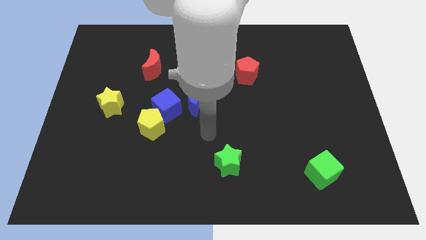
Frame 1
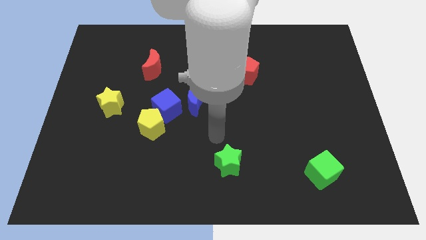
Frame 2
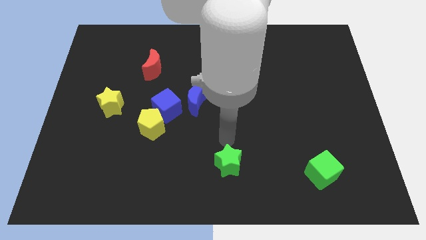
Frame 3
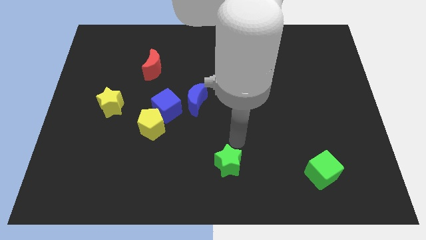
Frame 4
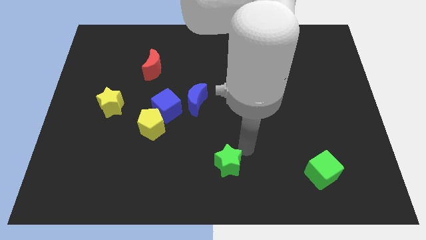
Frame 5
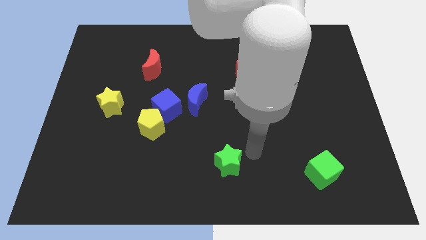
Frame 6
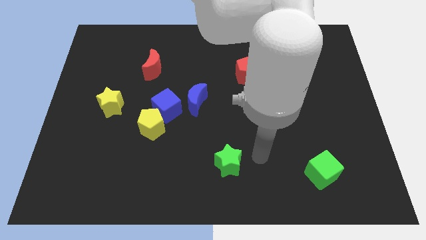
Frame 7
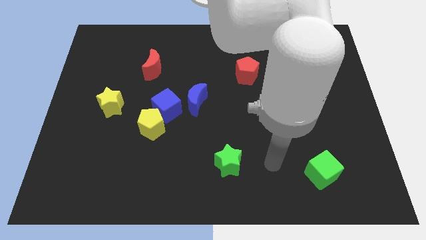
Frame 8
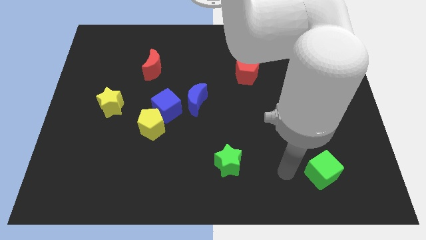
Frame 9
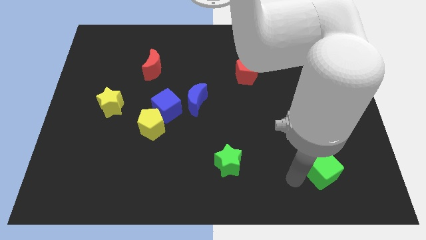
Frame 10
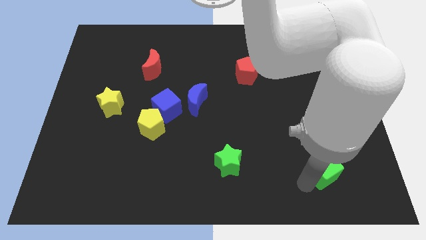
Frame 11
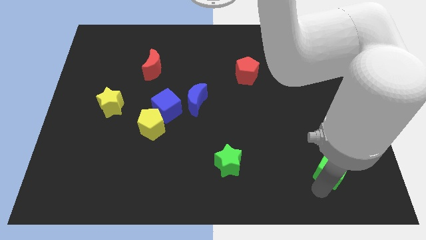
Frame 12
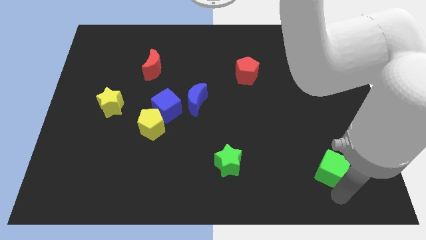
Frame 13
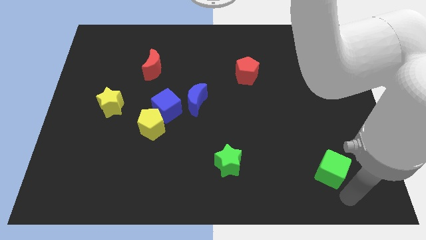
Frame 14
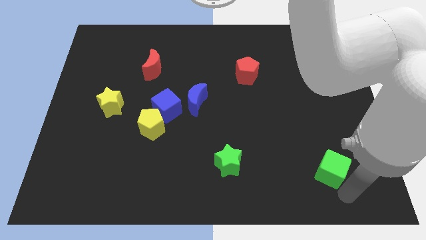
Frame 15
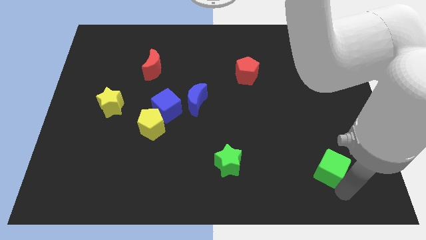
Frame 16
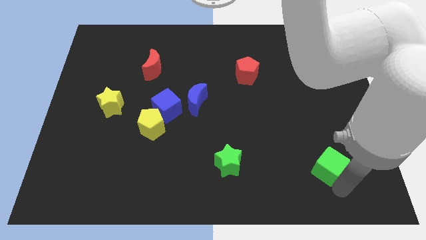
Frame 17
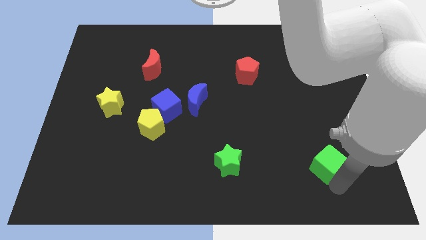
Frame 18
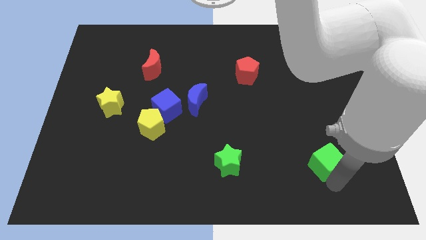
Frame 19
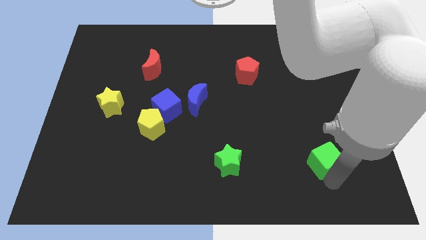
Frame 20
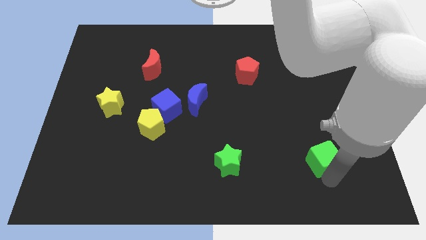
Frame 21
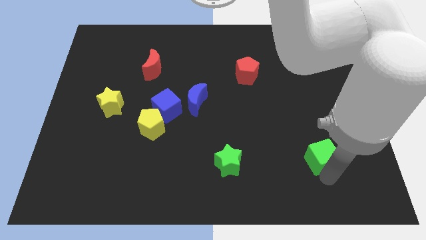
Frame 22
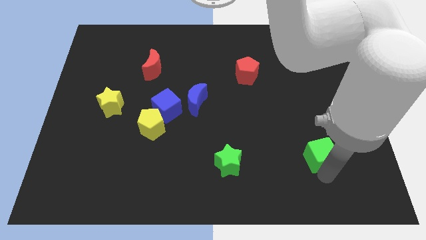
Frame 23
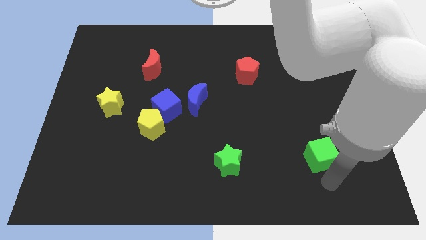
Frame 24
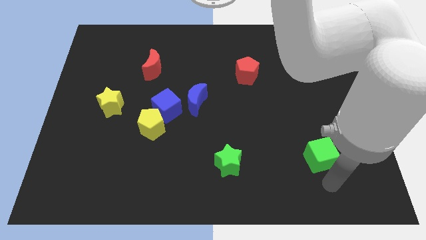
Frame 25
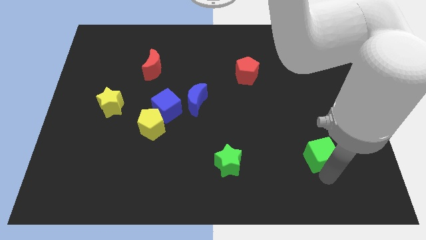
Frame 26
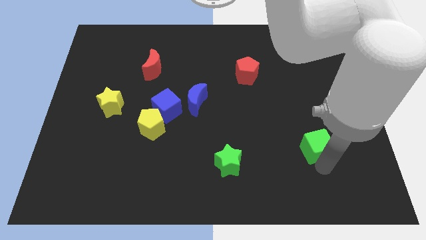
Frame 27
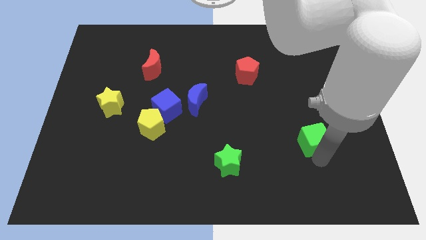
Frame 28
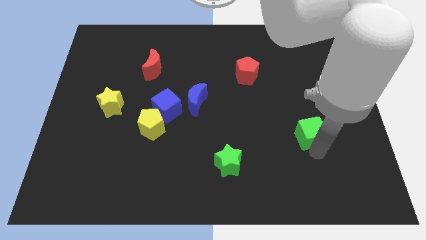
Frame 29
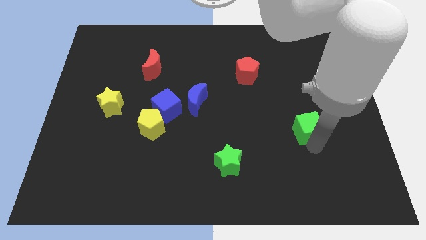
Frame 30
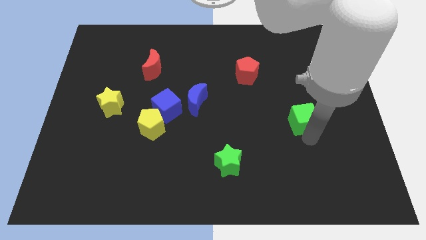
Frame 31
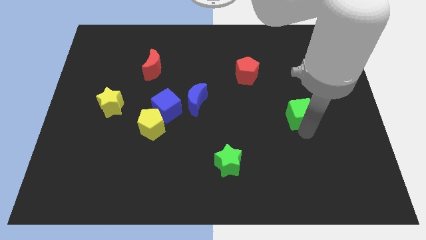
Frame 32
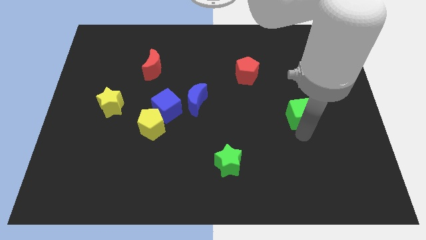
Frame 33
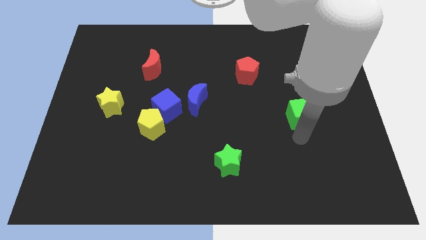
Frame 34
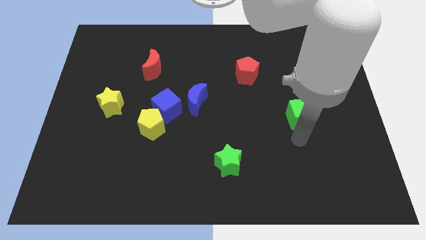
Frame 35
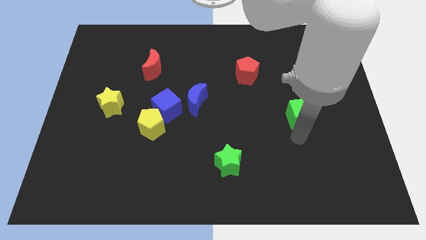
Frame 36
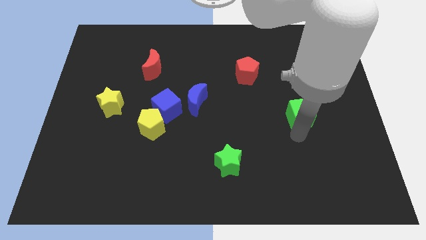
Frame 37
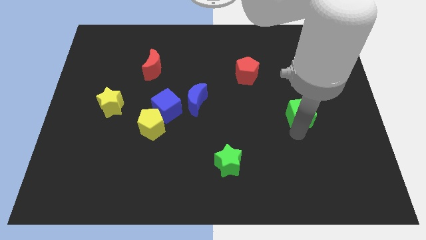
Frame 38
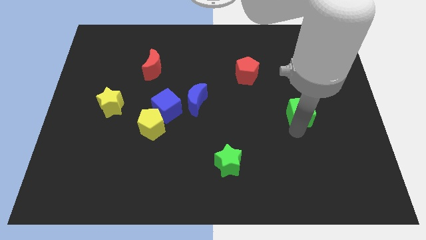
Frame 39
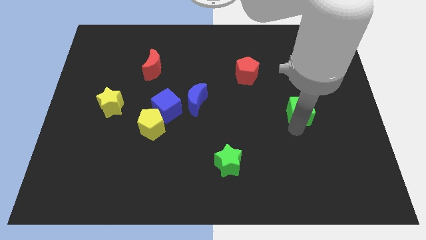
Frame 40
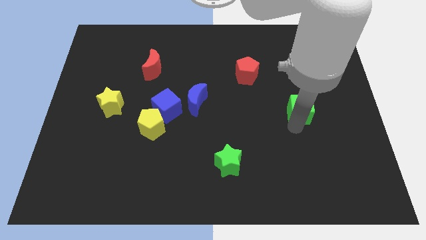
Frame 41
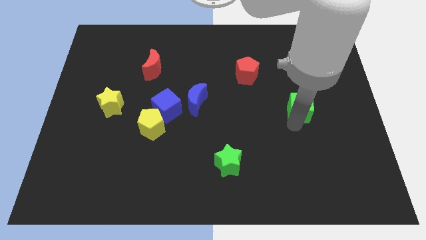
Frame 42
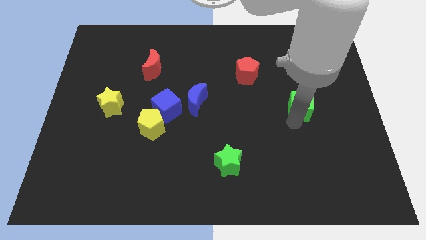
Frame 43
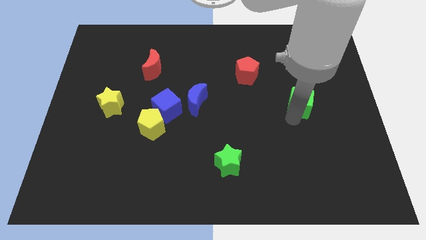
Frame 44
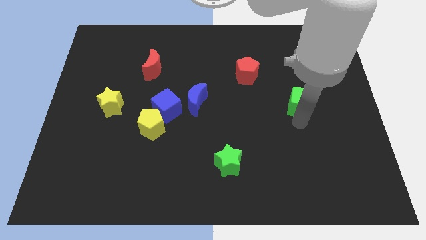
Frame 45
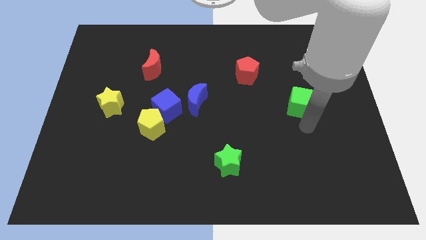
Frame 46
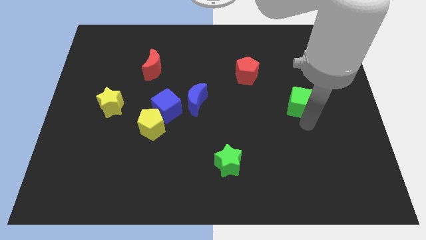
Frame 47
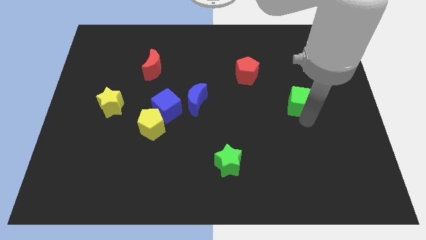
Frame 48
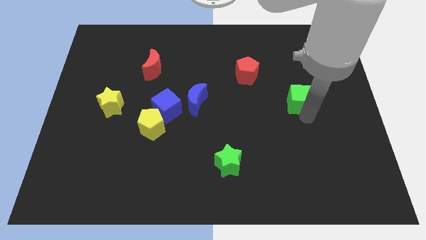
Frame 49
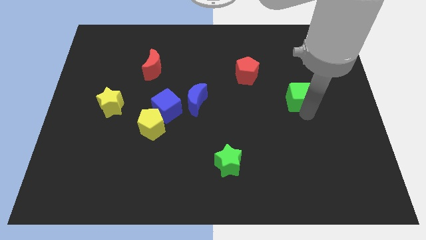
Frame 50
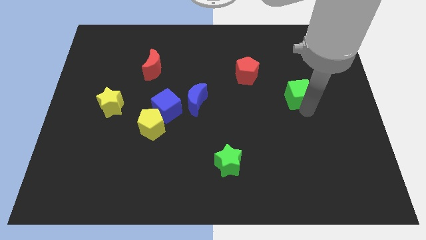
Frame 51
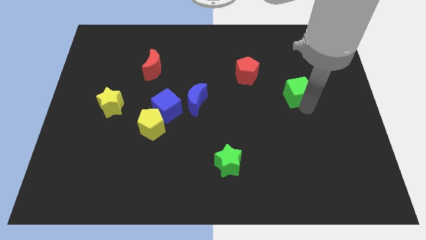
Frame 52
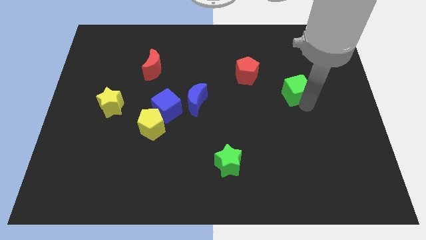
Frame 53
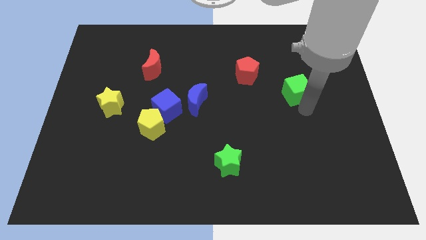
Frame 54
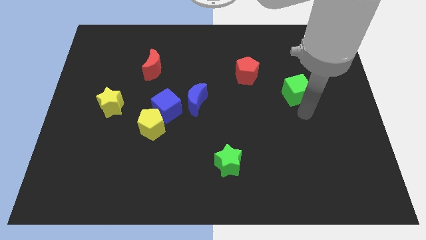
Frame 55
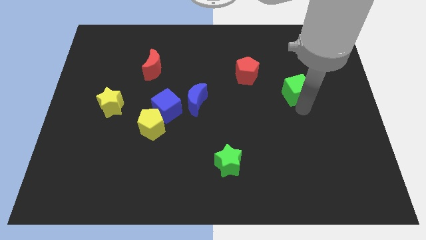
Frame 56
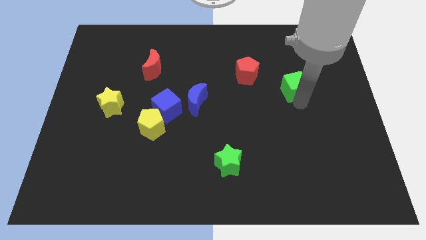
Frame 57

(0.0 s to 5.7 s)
move the green cube just right of the red pentagon

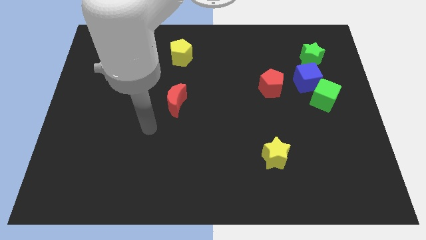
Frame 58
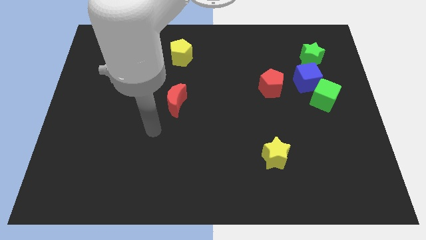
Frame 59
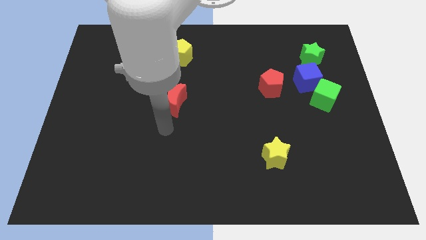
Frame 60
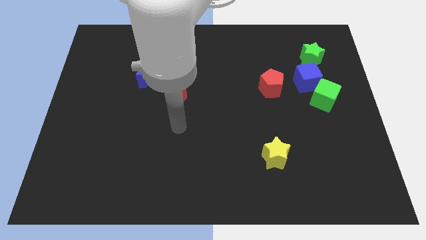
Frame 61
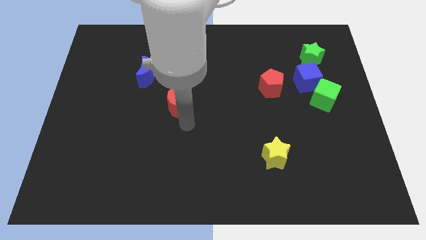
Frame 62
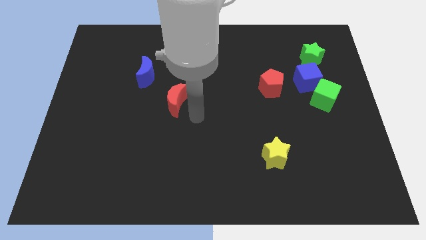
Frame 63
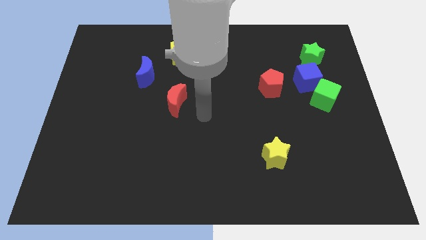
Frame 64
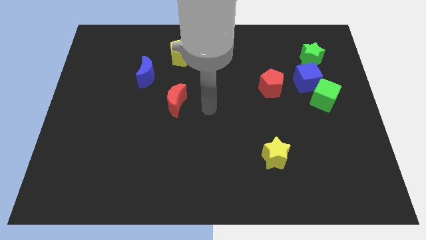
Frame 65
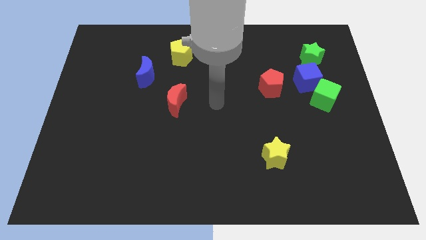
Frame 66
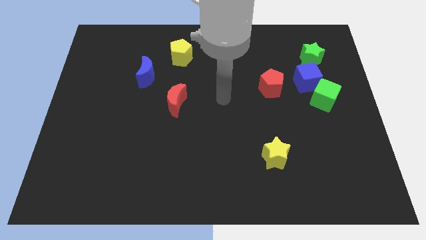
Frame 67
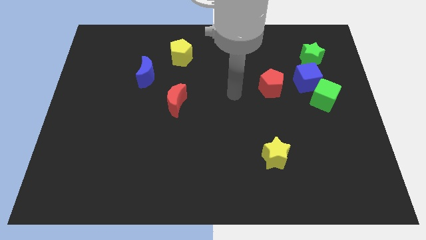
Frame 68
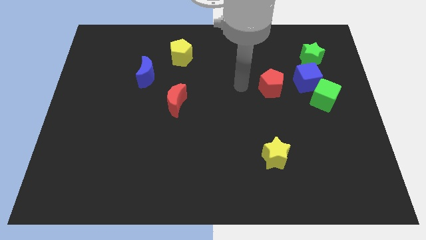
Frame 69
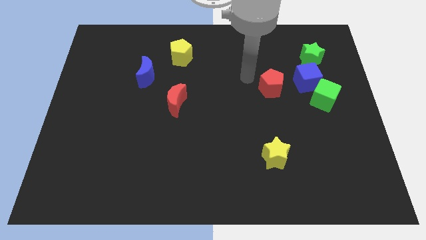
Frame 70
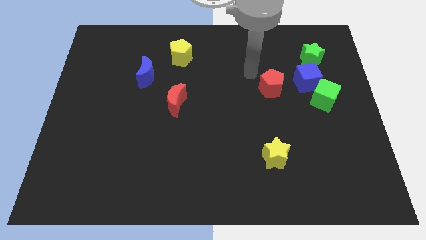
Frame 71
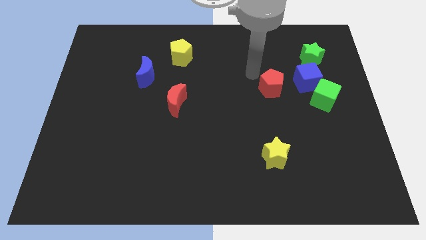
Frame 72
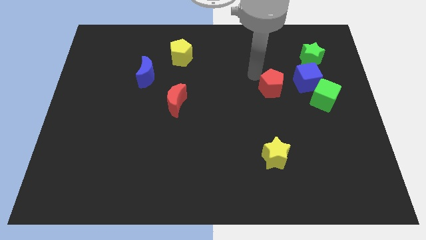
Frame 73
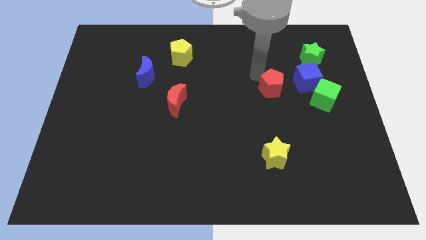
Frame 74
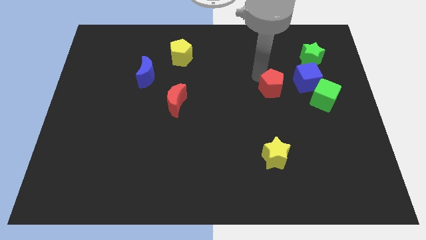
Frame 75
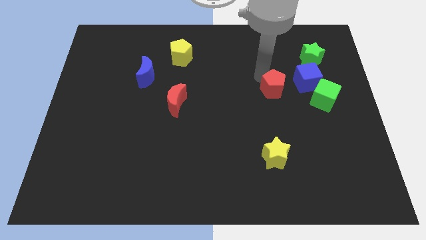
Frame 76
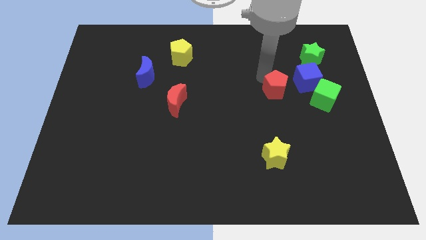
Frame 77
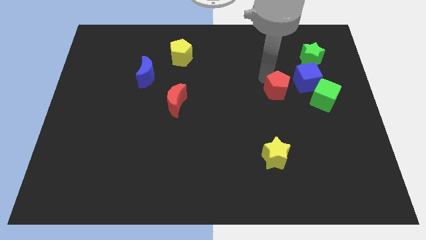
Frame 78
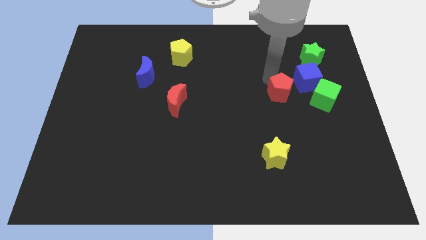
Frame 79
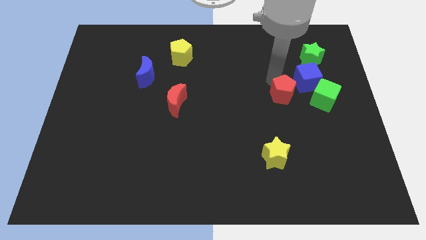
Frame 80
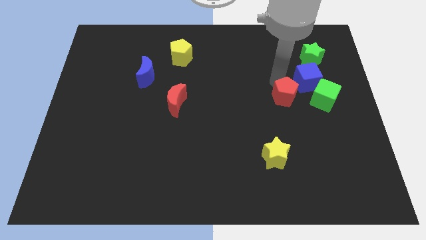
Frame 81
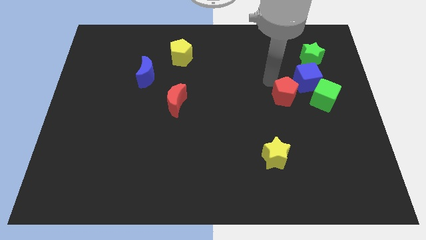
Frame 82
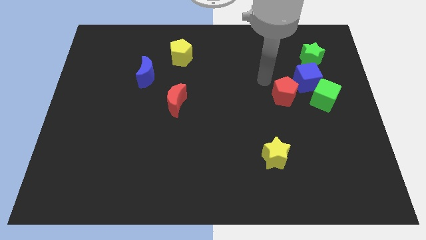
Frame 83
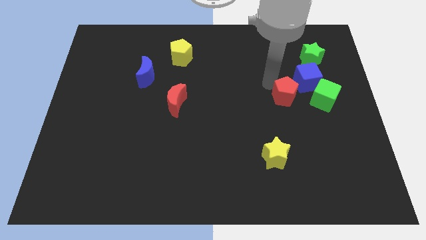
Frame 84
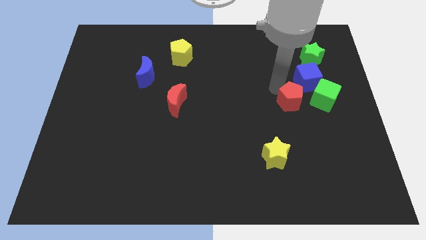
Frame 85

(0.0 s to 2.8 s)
slide the red pentagon to the bottom of the blue cube
